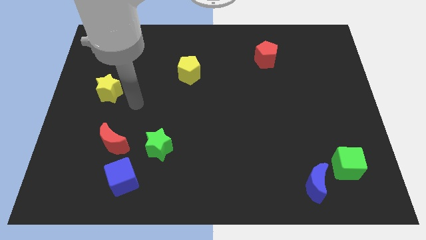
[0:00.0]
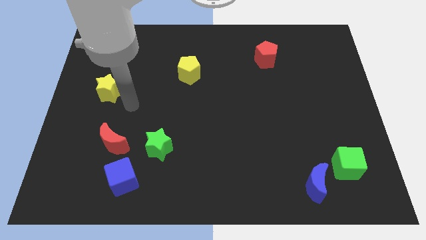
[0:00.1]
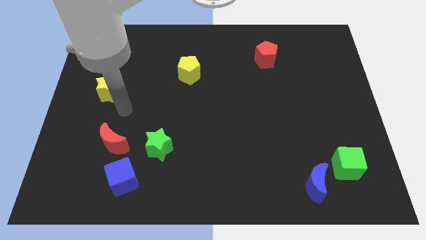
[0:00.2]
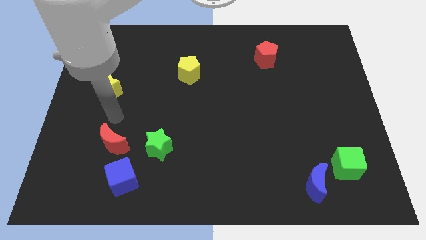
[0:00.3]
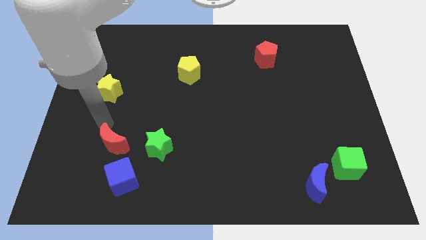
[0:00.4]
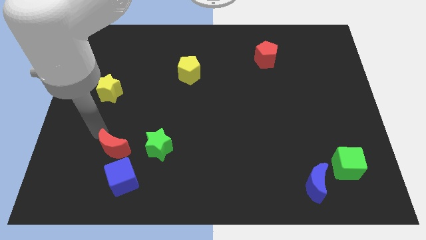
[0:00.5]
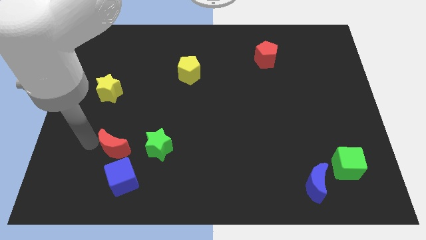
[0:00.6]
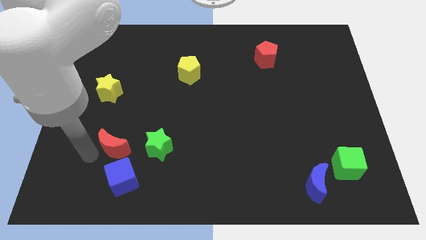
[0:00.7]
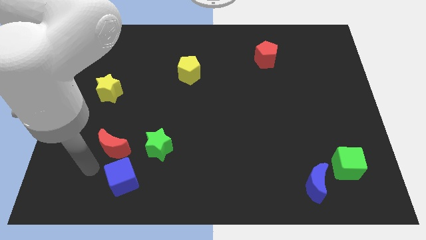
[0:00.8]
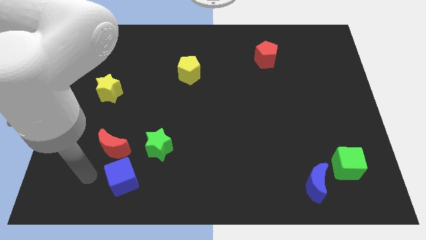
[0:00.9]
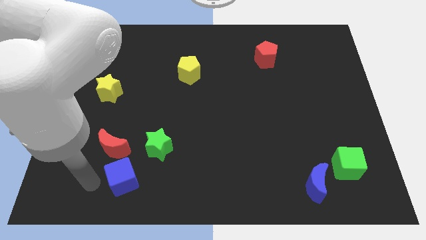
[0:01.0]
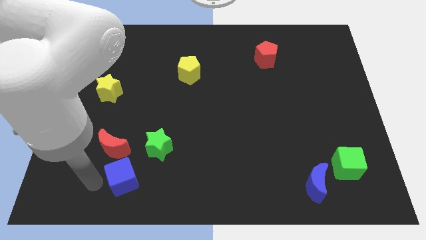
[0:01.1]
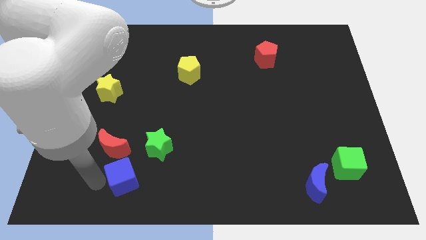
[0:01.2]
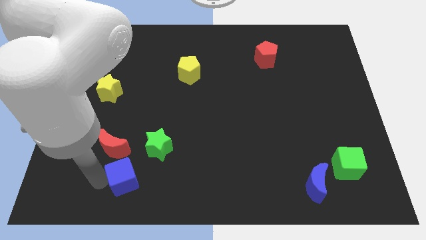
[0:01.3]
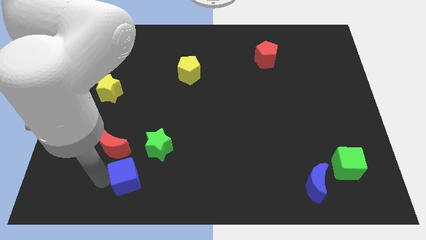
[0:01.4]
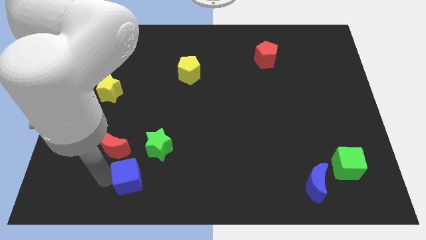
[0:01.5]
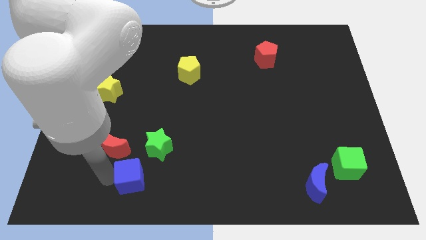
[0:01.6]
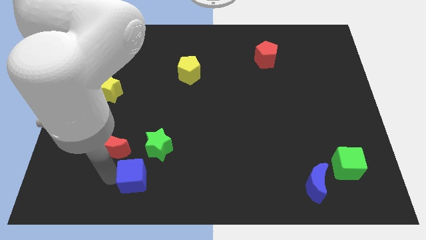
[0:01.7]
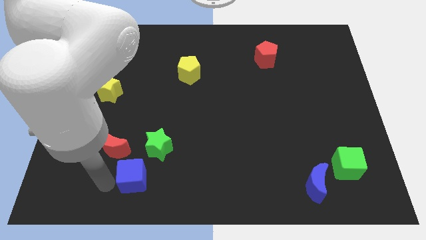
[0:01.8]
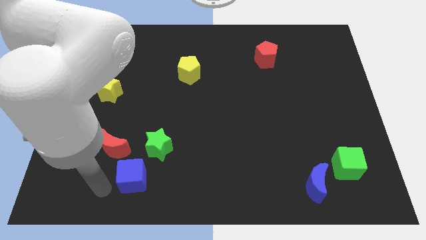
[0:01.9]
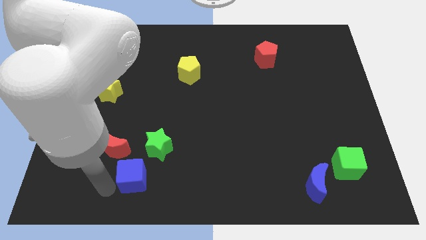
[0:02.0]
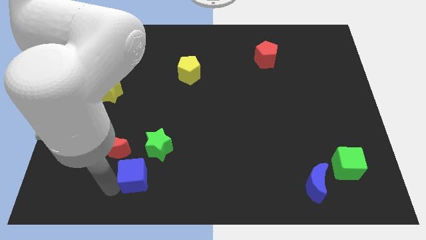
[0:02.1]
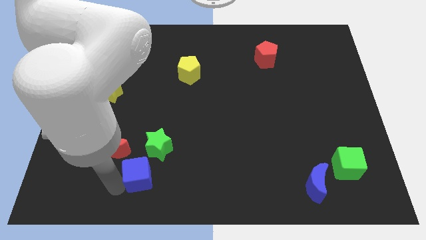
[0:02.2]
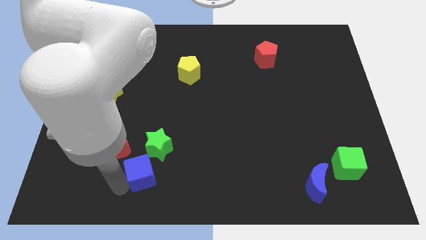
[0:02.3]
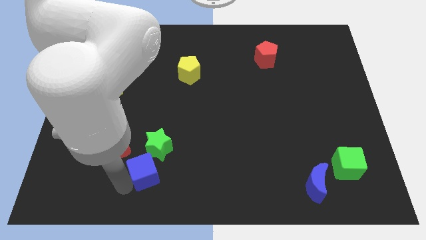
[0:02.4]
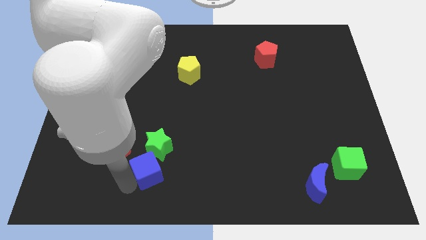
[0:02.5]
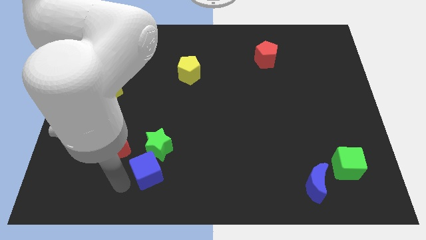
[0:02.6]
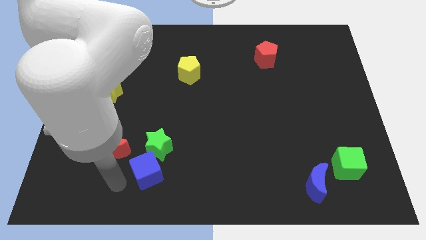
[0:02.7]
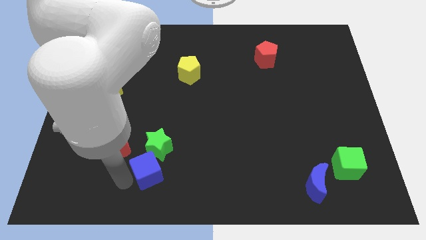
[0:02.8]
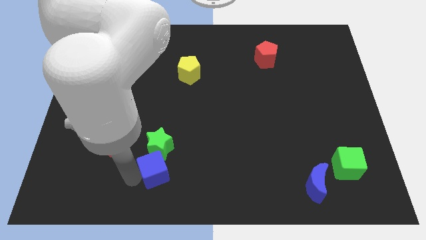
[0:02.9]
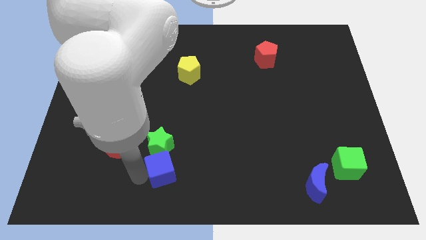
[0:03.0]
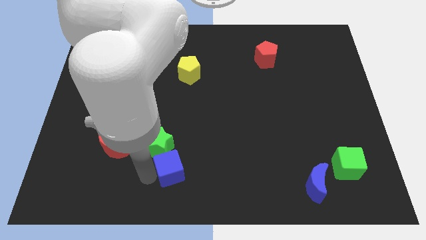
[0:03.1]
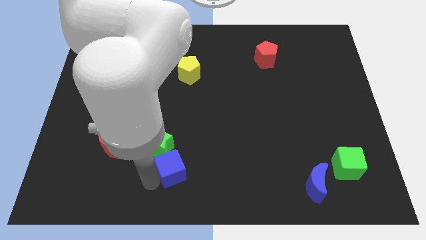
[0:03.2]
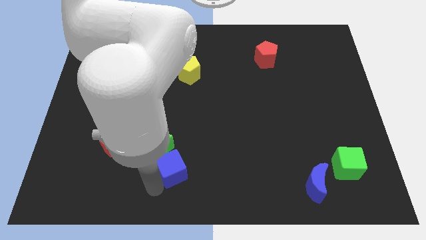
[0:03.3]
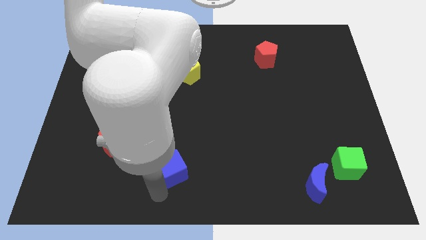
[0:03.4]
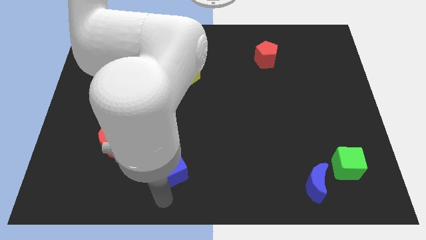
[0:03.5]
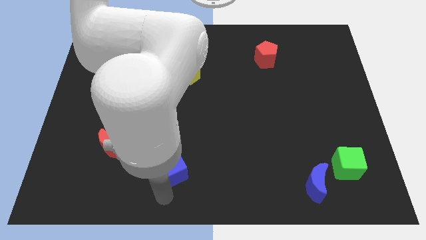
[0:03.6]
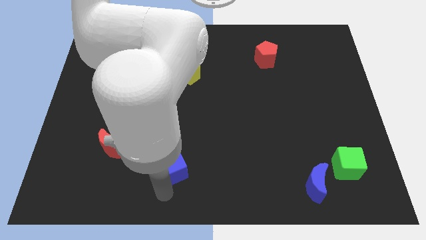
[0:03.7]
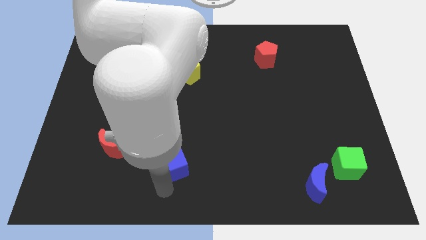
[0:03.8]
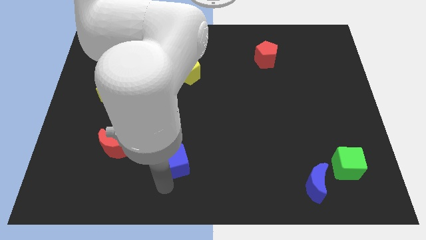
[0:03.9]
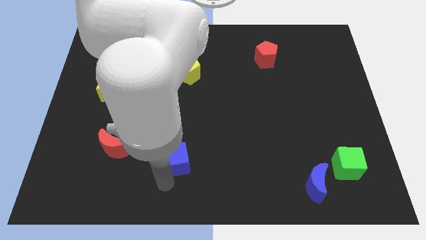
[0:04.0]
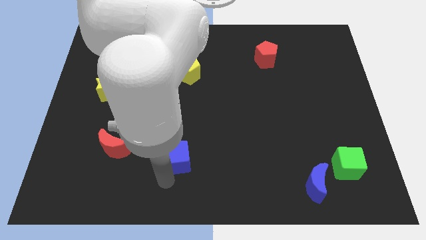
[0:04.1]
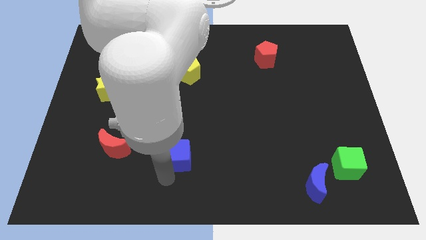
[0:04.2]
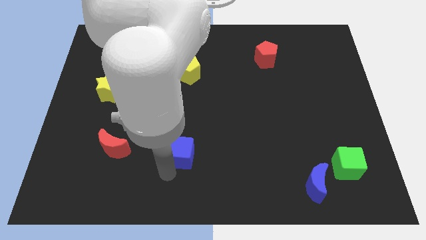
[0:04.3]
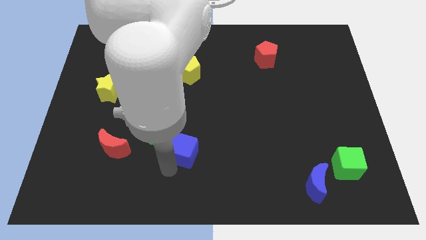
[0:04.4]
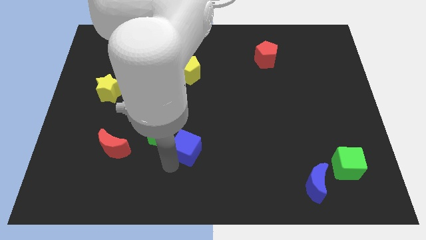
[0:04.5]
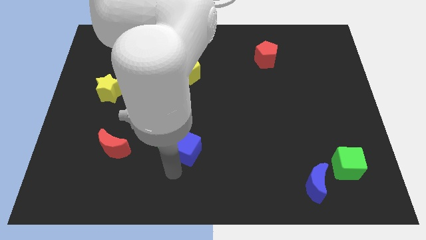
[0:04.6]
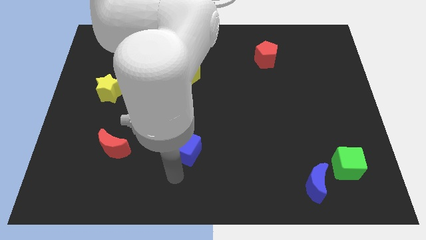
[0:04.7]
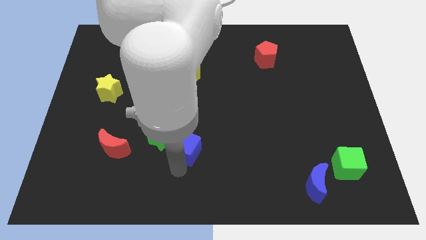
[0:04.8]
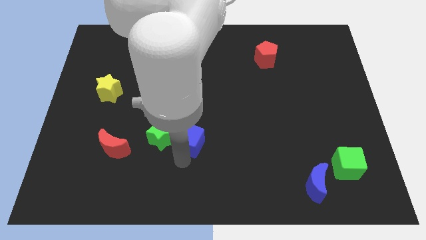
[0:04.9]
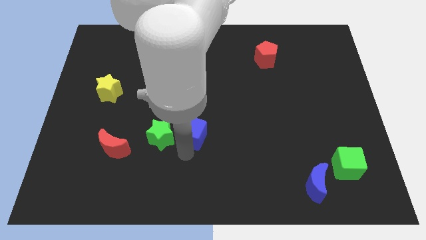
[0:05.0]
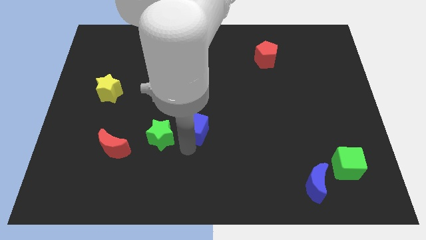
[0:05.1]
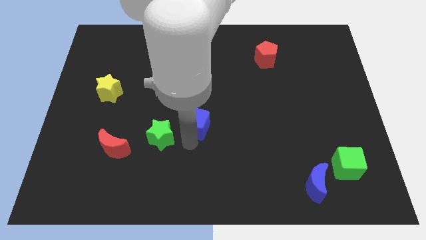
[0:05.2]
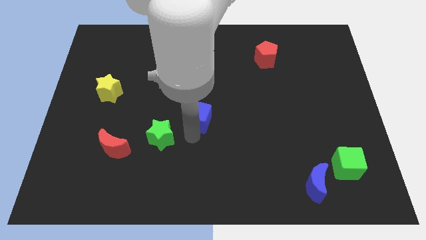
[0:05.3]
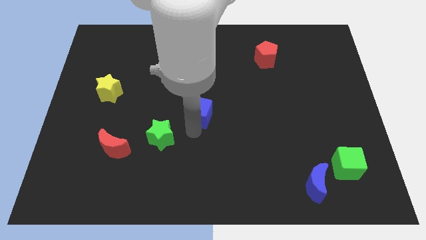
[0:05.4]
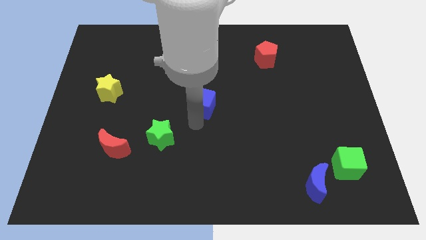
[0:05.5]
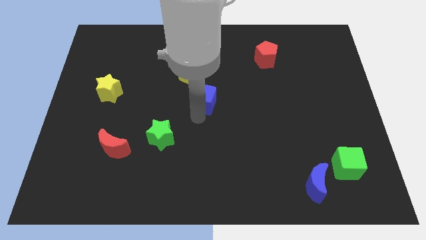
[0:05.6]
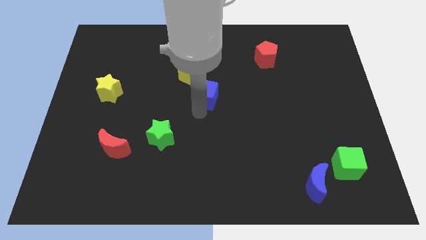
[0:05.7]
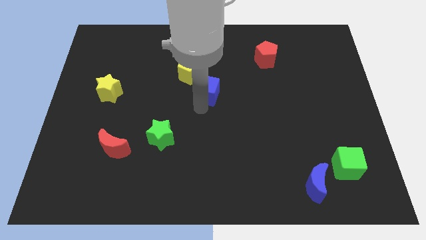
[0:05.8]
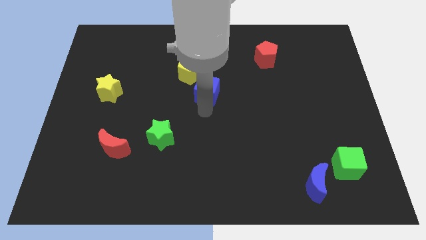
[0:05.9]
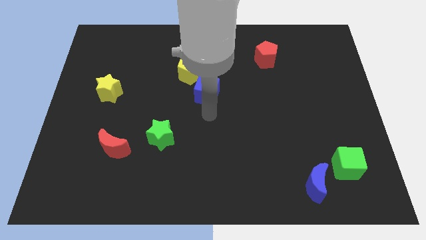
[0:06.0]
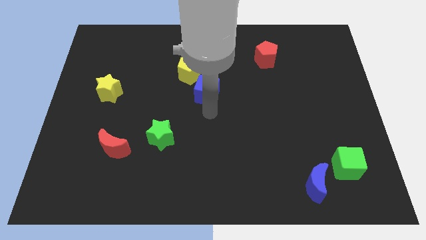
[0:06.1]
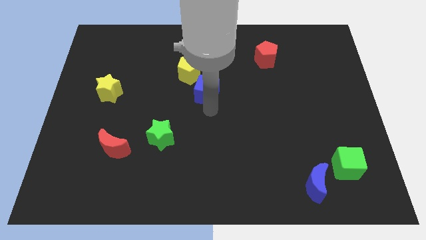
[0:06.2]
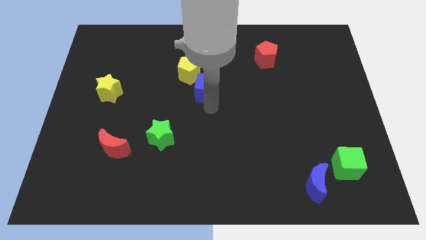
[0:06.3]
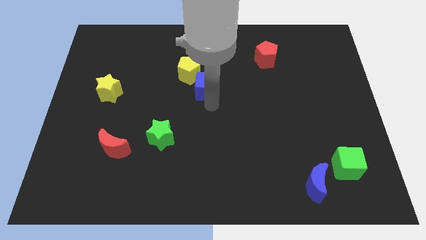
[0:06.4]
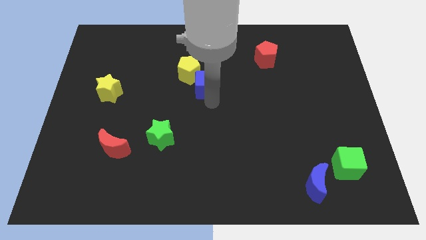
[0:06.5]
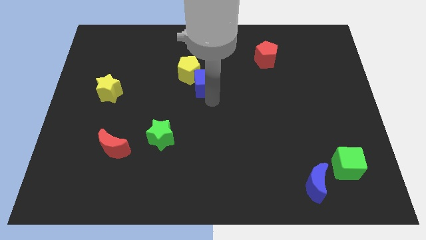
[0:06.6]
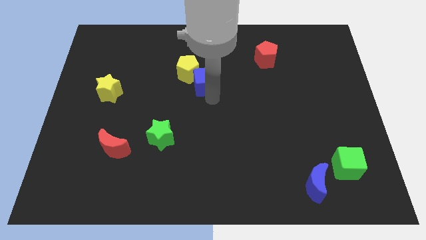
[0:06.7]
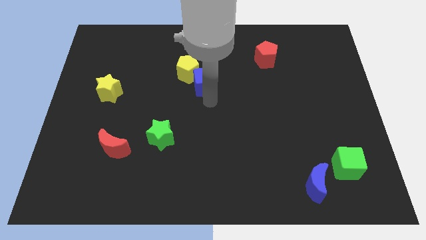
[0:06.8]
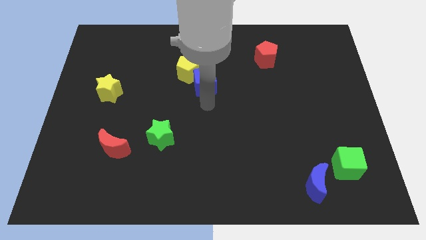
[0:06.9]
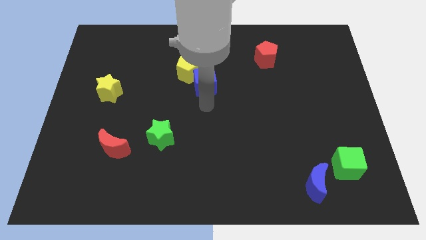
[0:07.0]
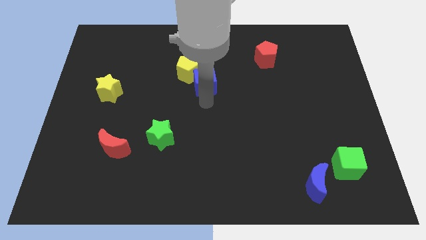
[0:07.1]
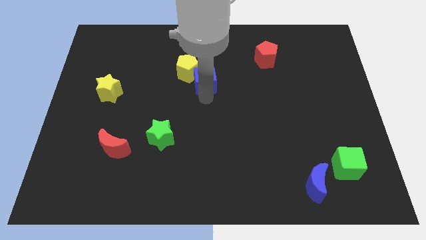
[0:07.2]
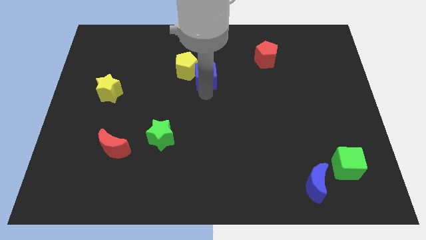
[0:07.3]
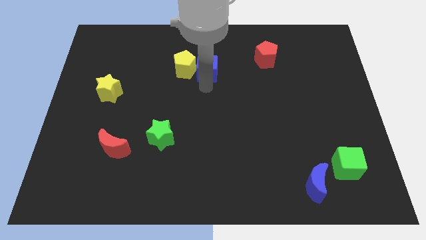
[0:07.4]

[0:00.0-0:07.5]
push the blue cube to the top right side of the yellow pentagon
